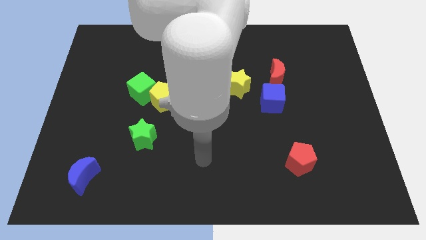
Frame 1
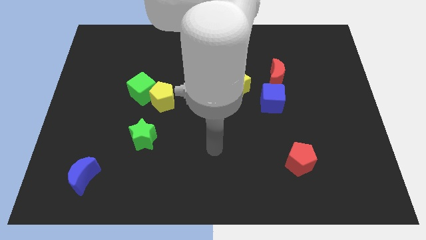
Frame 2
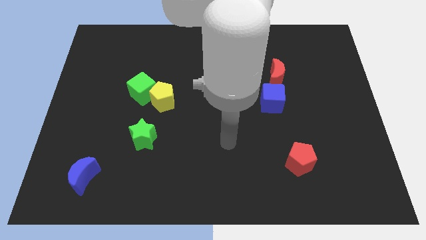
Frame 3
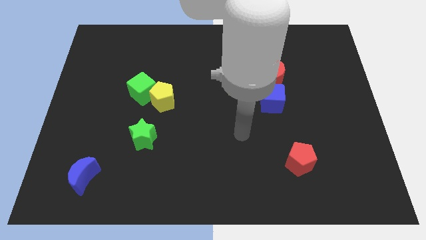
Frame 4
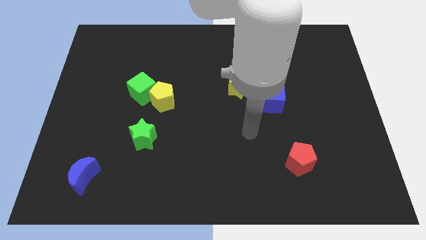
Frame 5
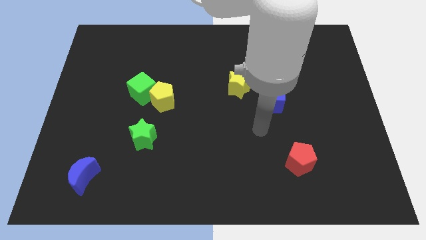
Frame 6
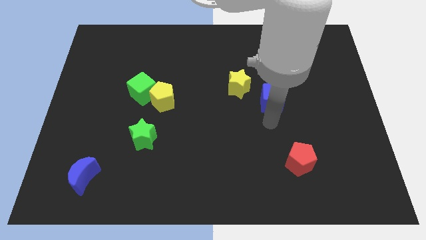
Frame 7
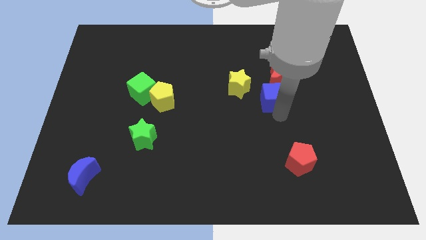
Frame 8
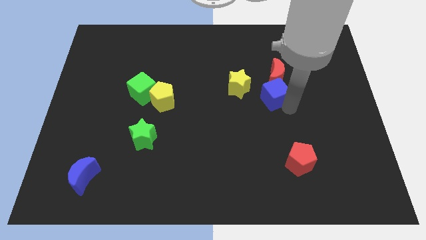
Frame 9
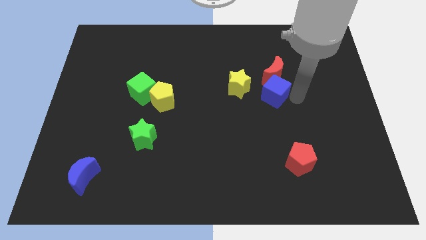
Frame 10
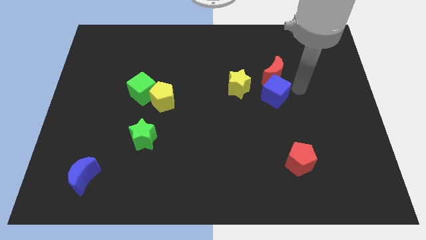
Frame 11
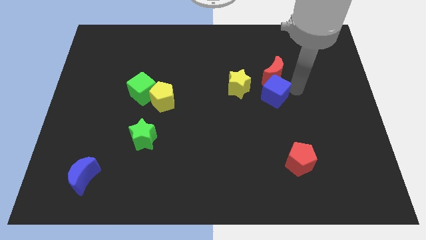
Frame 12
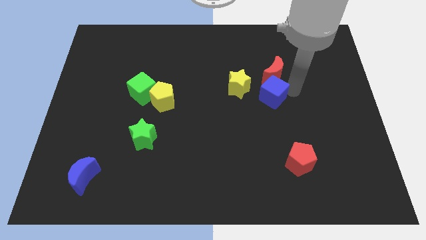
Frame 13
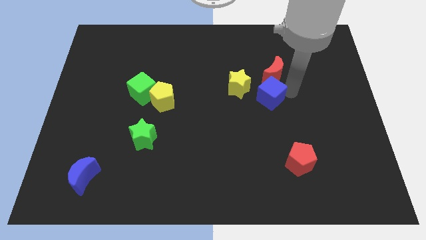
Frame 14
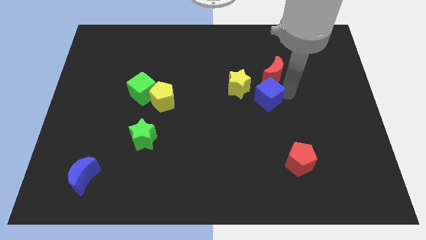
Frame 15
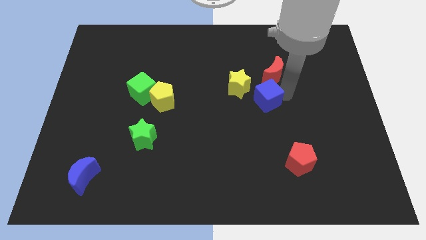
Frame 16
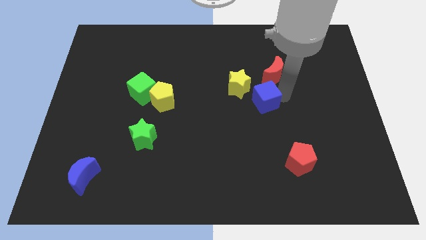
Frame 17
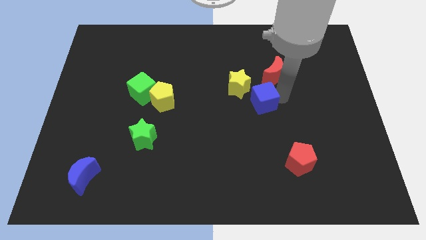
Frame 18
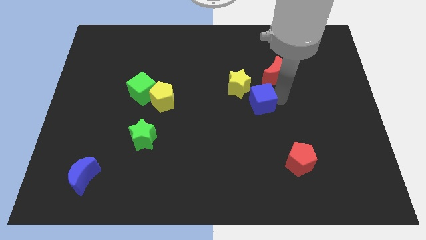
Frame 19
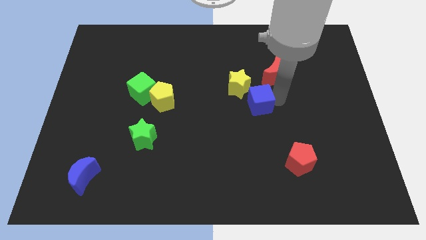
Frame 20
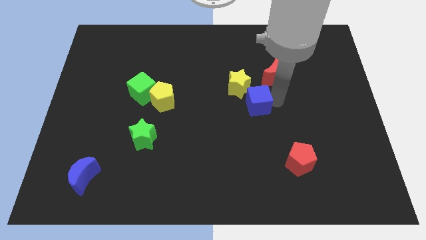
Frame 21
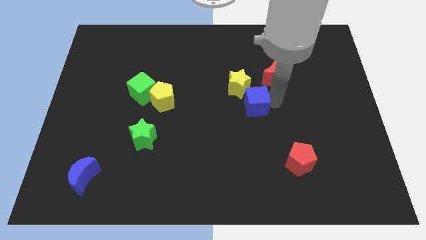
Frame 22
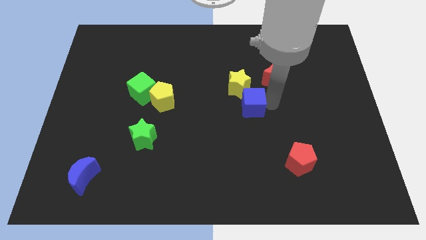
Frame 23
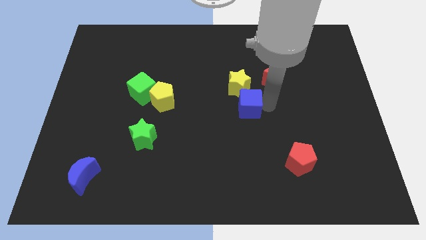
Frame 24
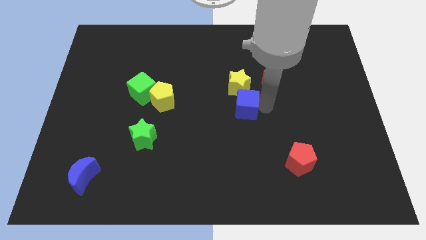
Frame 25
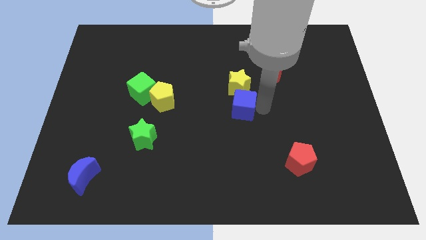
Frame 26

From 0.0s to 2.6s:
slightly move the blue cube left

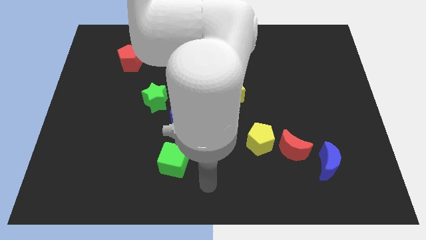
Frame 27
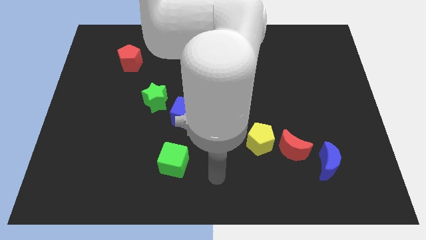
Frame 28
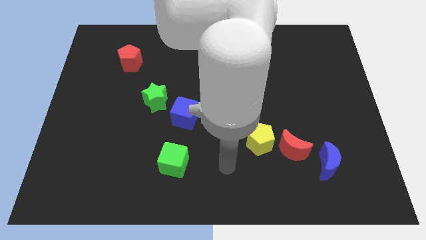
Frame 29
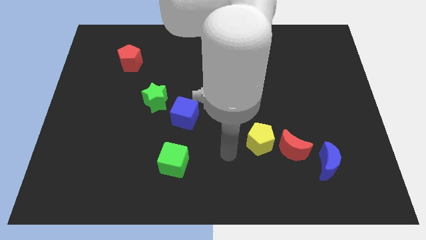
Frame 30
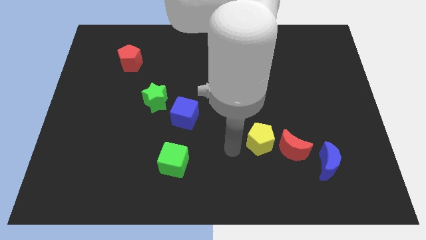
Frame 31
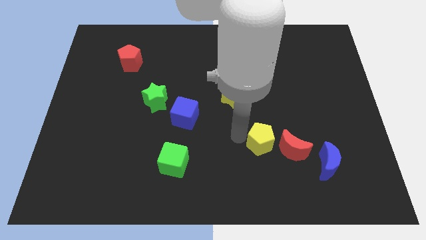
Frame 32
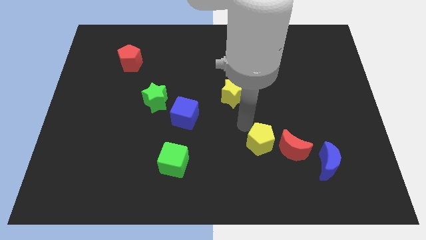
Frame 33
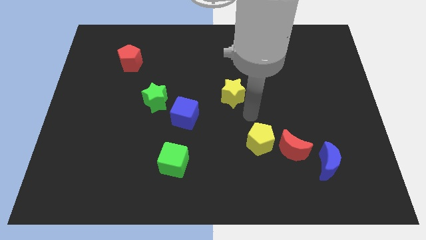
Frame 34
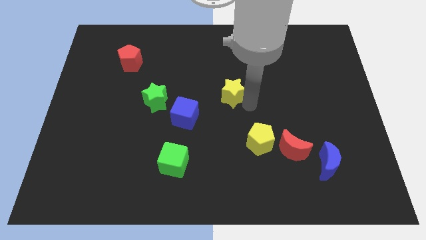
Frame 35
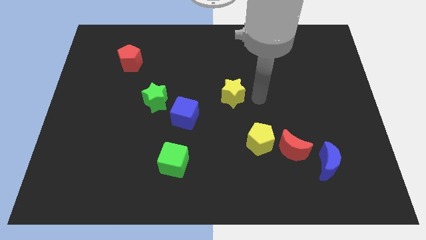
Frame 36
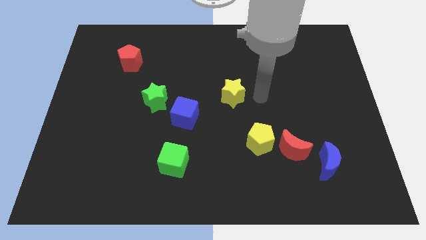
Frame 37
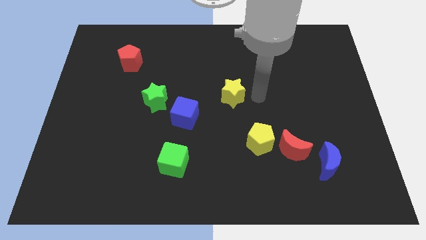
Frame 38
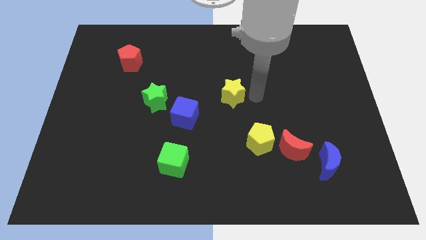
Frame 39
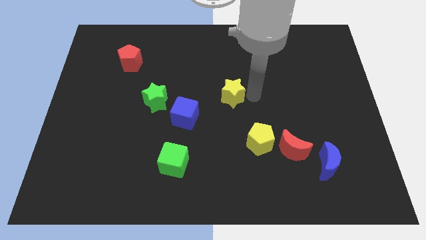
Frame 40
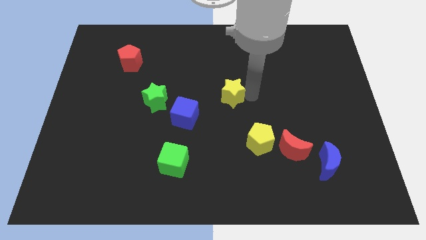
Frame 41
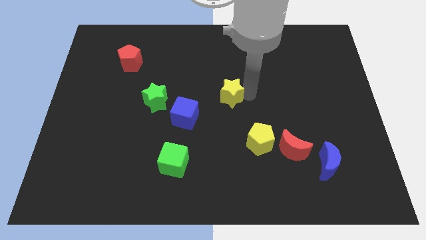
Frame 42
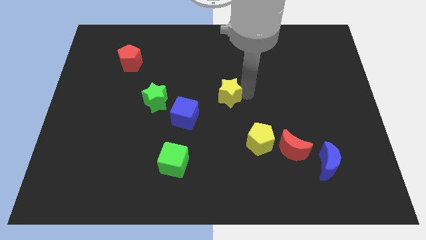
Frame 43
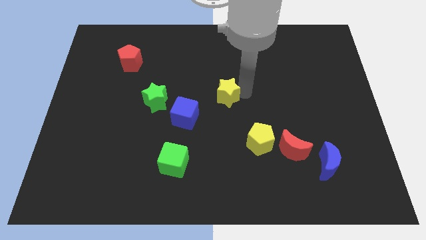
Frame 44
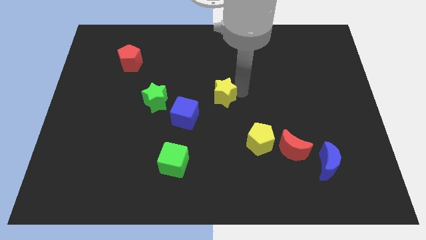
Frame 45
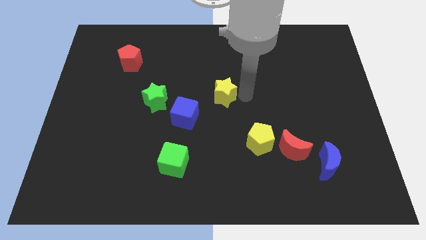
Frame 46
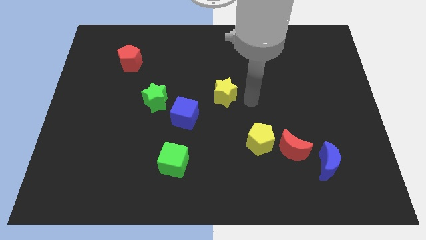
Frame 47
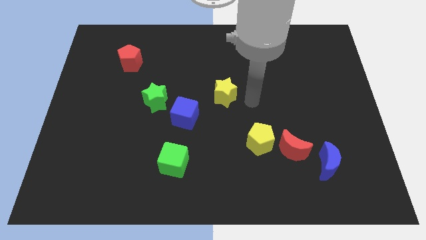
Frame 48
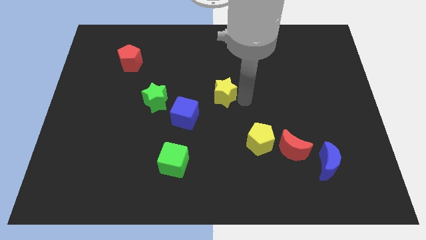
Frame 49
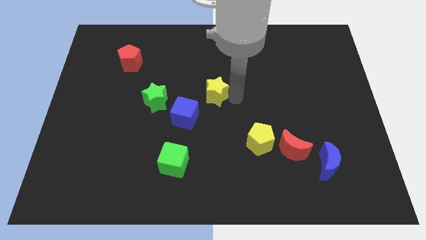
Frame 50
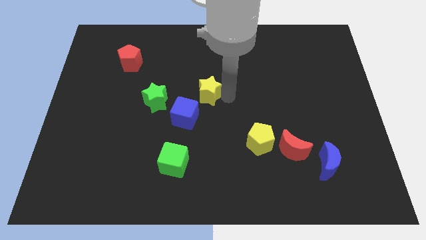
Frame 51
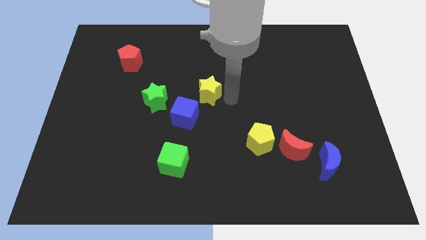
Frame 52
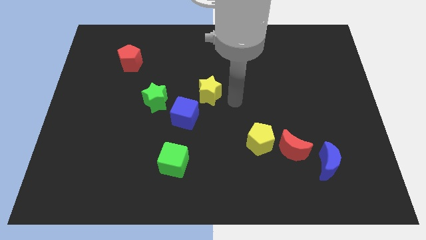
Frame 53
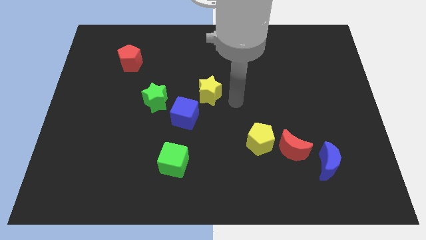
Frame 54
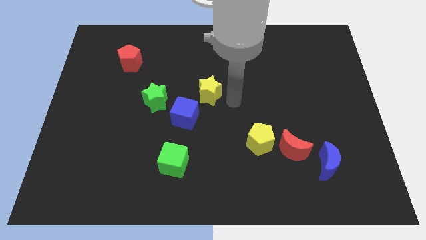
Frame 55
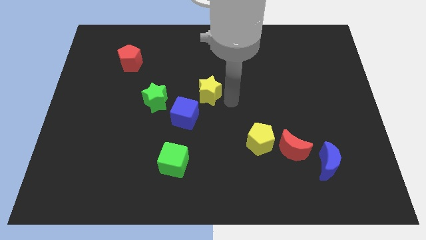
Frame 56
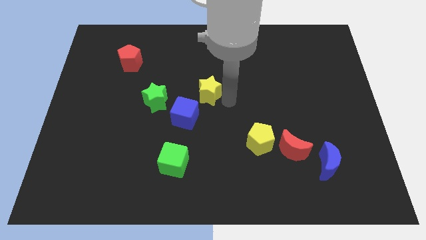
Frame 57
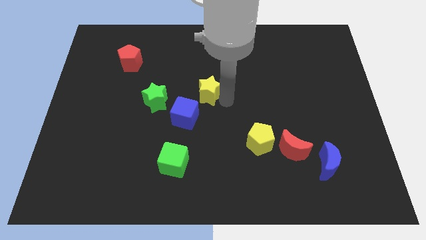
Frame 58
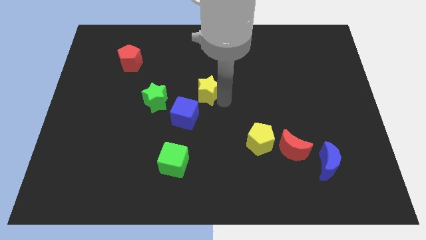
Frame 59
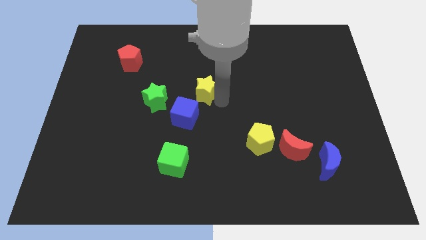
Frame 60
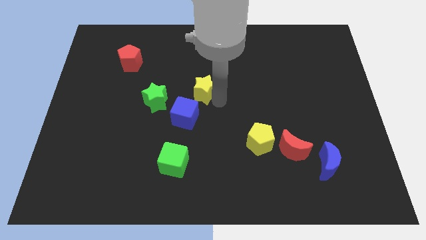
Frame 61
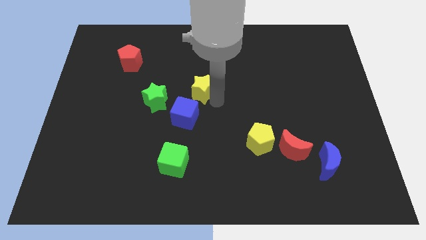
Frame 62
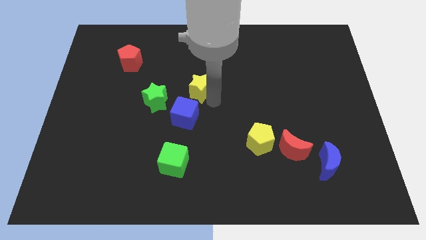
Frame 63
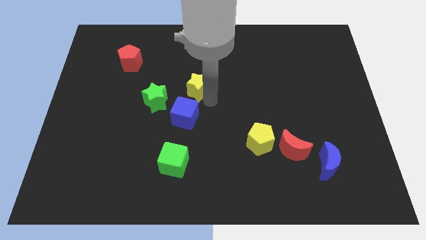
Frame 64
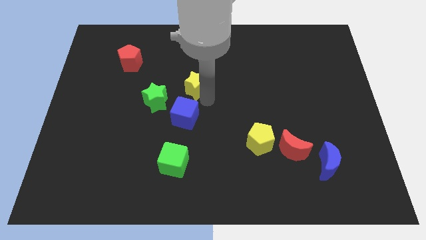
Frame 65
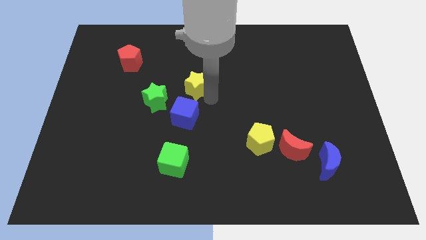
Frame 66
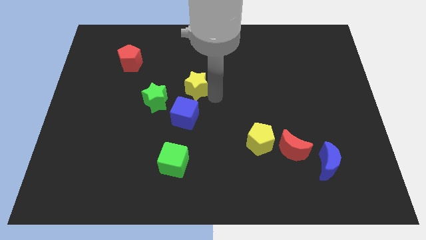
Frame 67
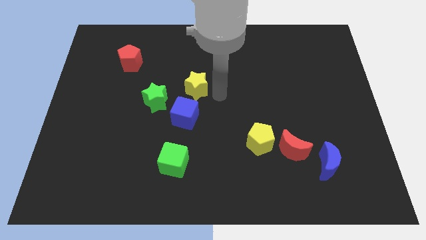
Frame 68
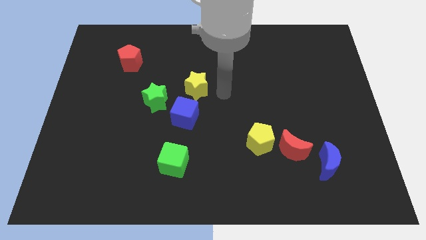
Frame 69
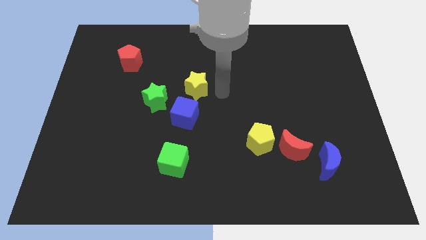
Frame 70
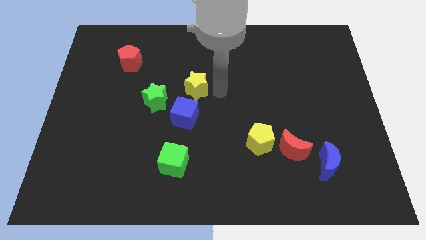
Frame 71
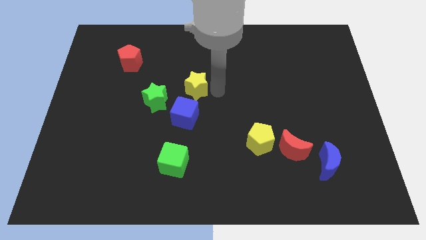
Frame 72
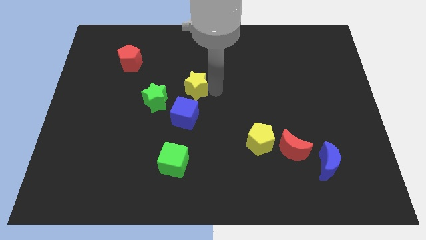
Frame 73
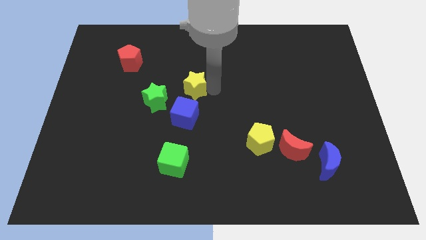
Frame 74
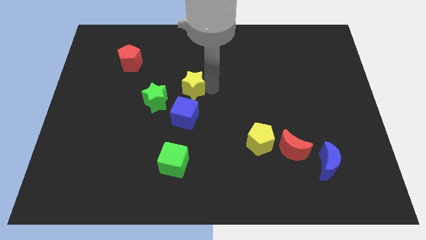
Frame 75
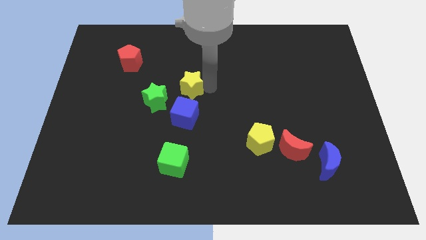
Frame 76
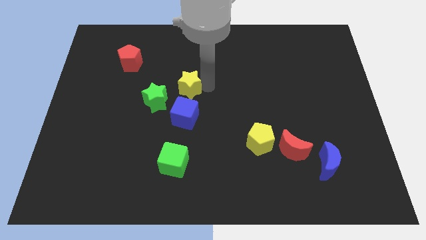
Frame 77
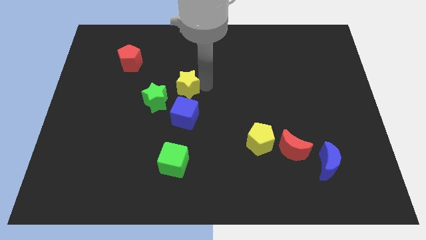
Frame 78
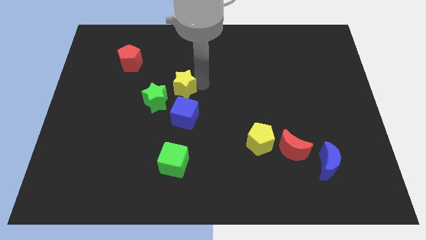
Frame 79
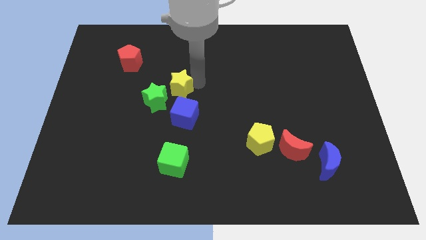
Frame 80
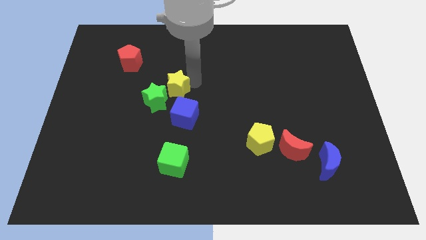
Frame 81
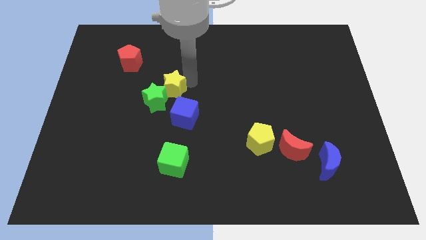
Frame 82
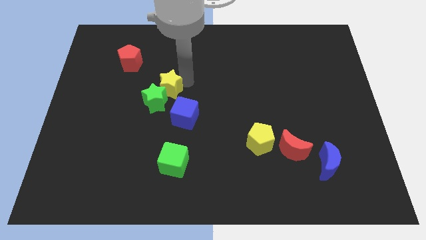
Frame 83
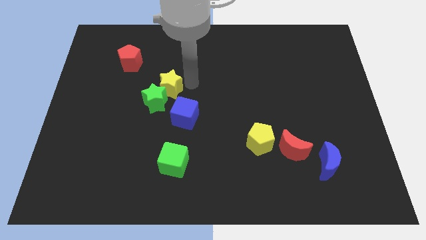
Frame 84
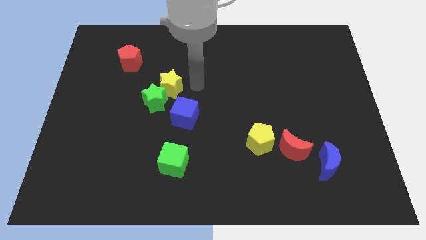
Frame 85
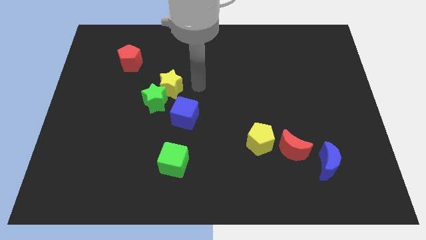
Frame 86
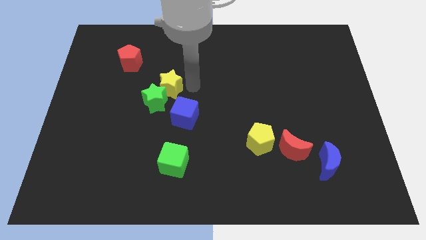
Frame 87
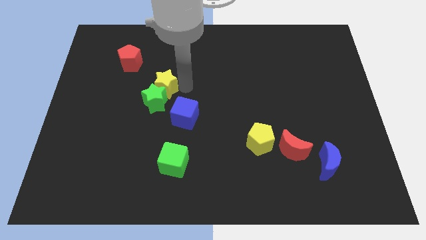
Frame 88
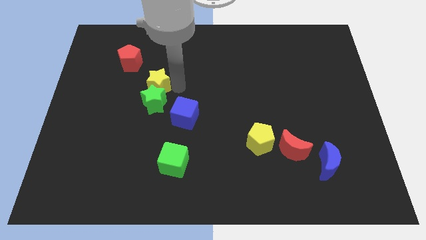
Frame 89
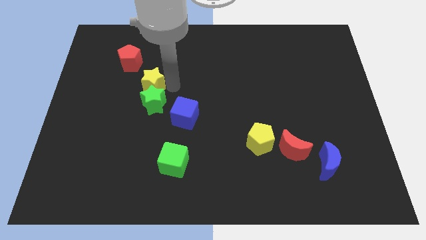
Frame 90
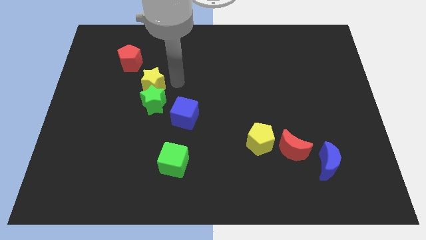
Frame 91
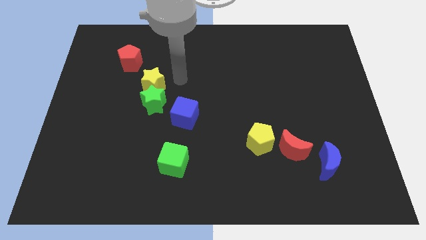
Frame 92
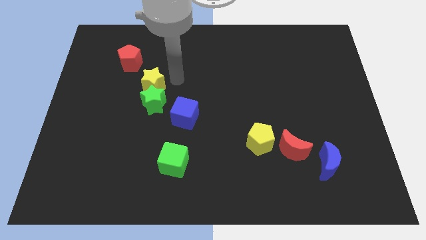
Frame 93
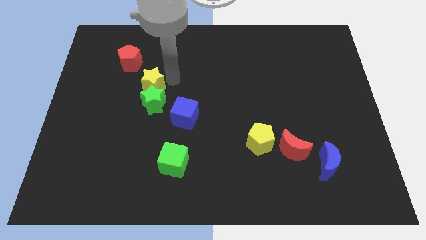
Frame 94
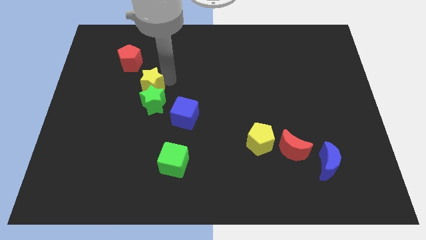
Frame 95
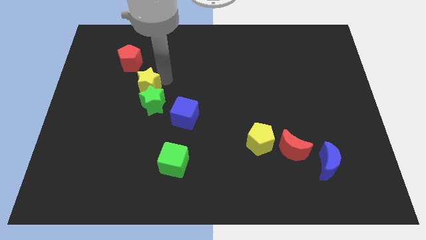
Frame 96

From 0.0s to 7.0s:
slide the yellow star to the left
